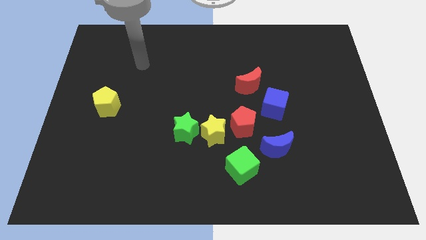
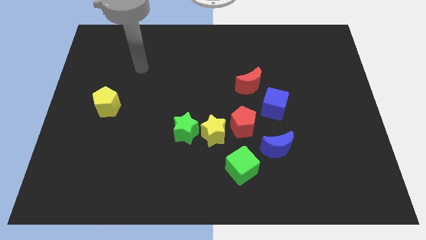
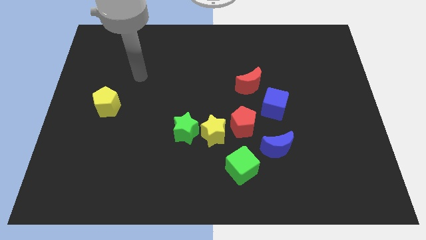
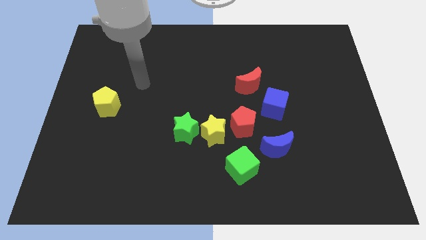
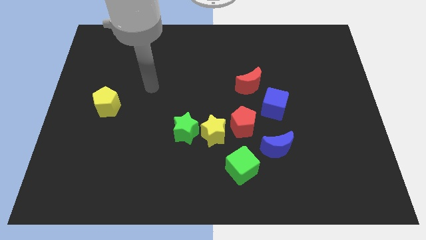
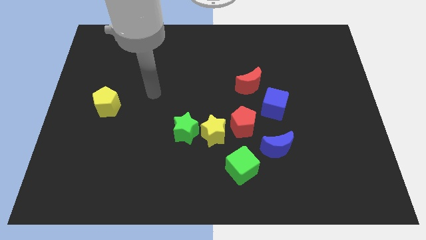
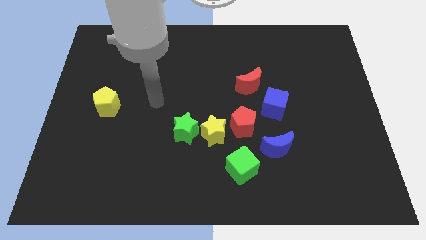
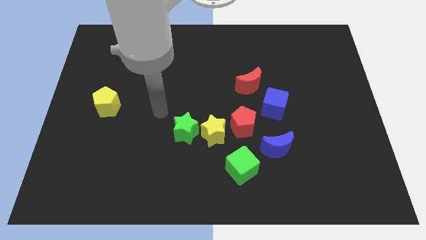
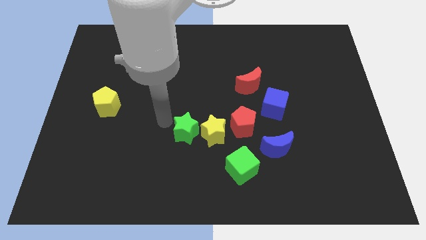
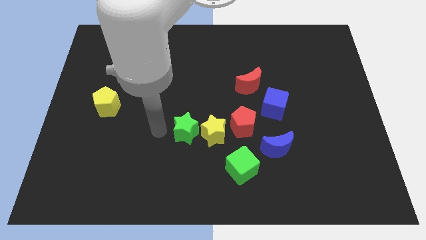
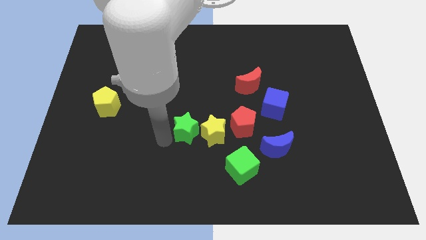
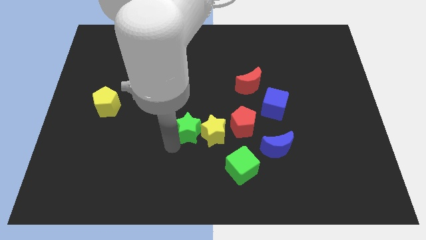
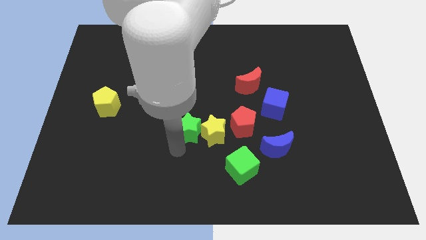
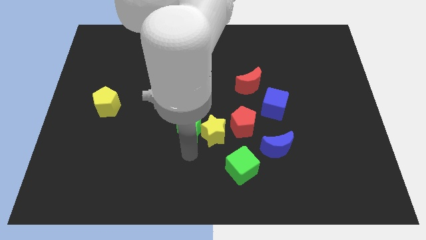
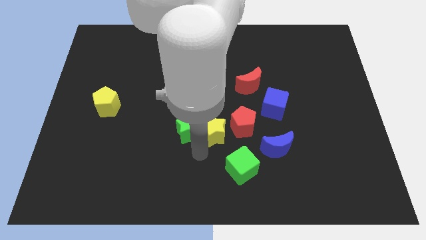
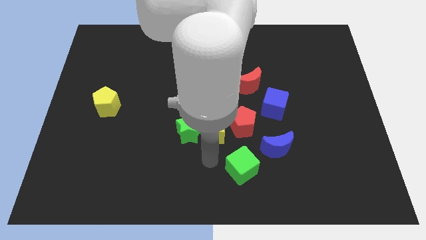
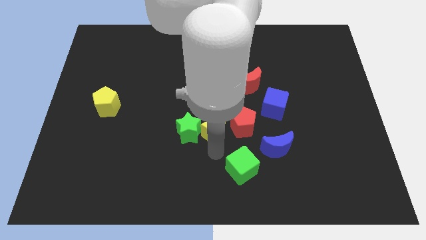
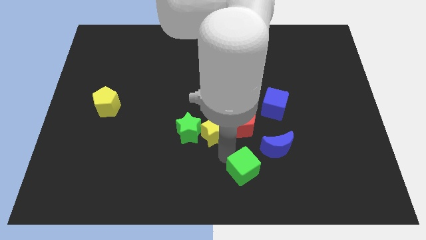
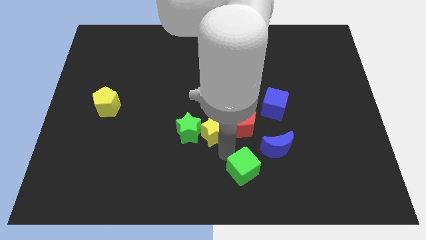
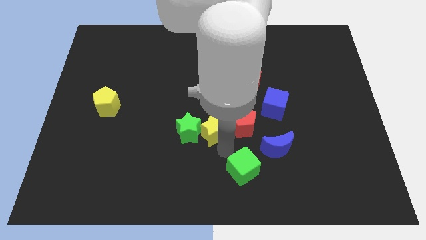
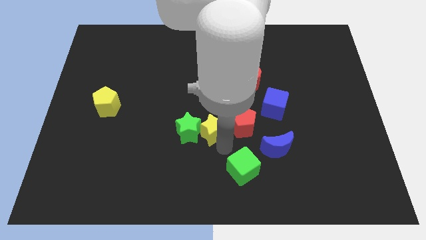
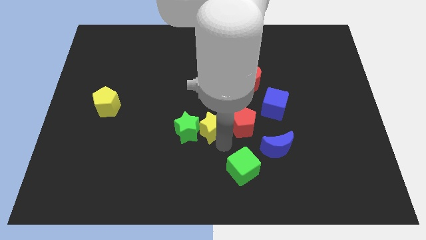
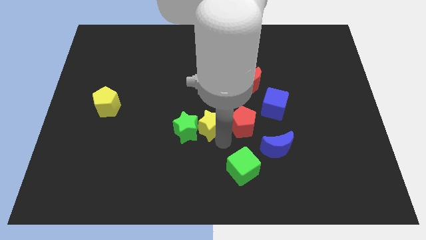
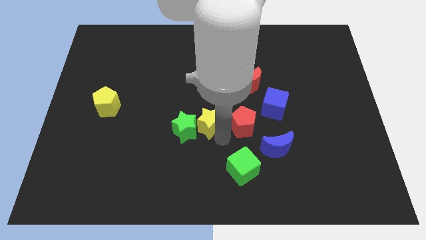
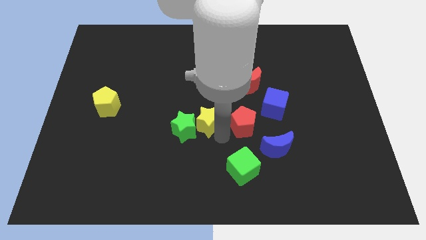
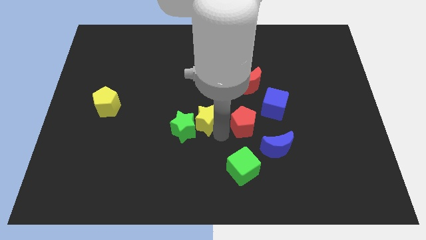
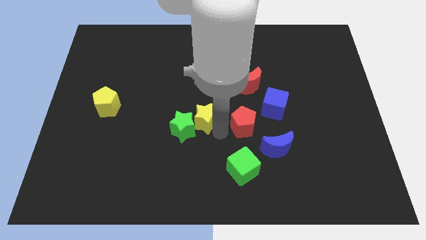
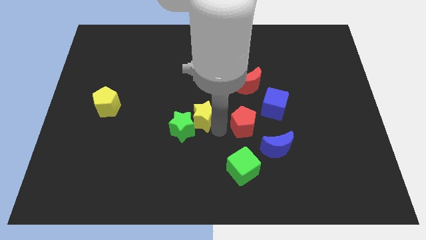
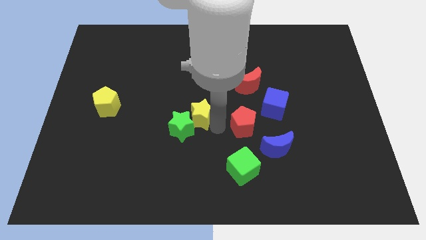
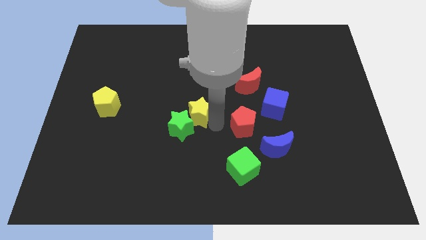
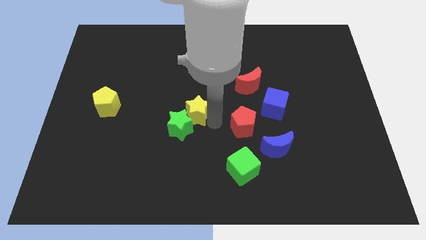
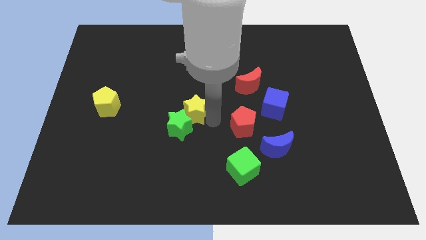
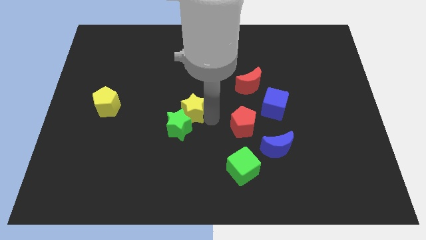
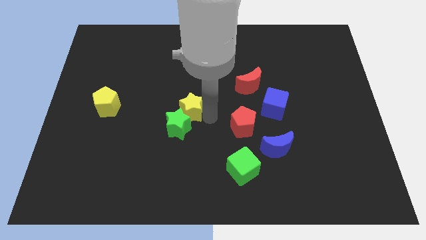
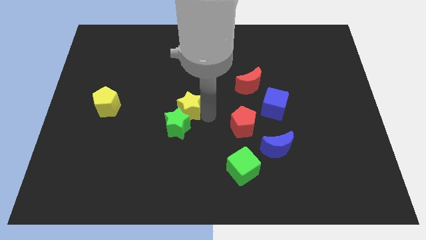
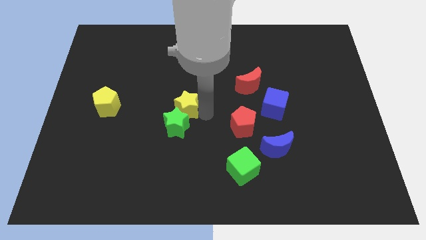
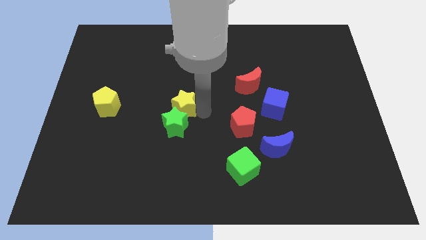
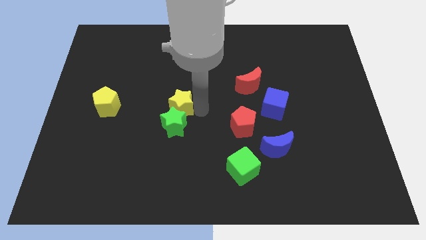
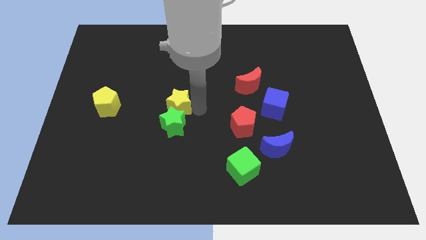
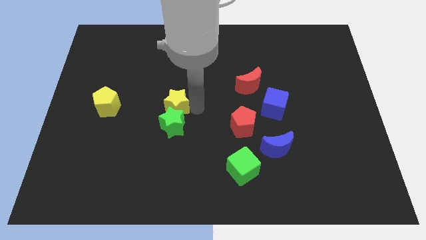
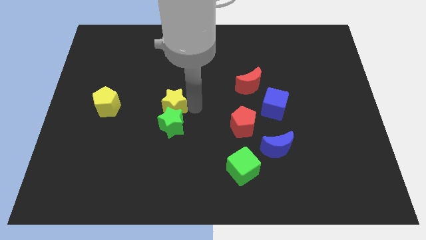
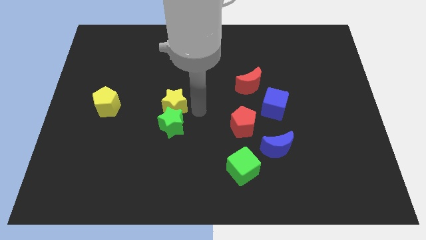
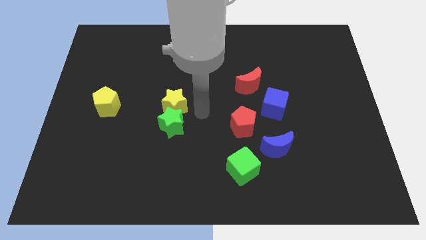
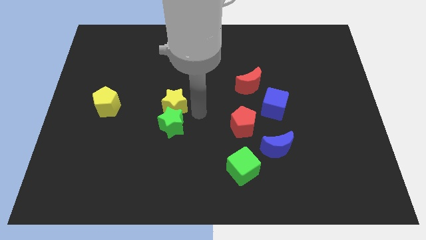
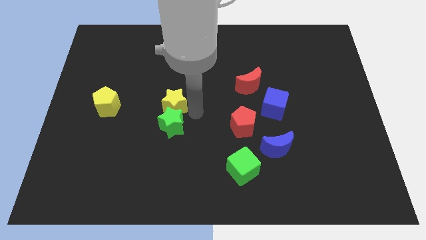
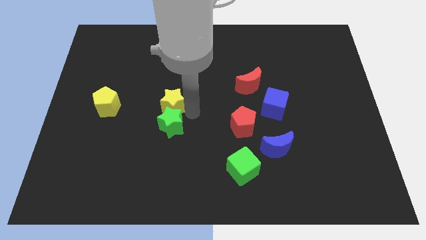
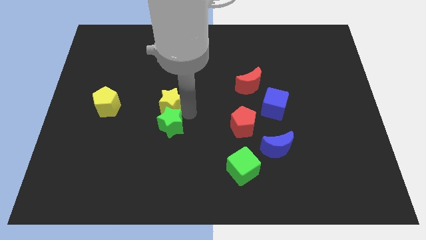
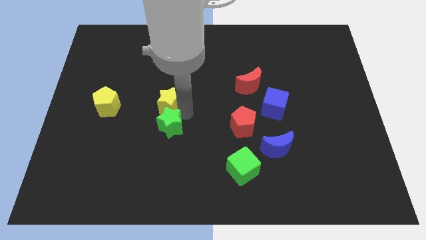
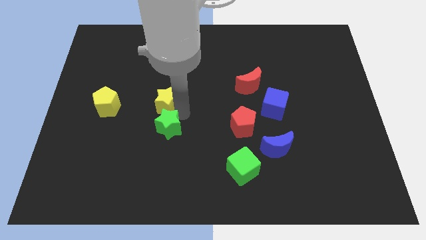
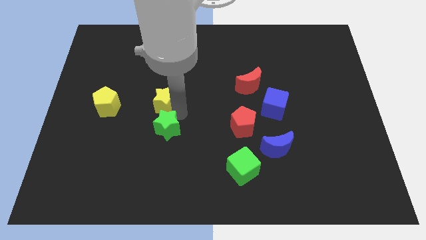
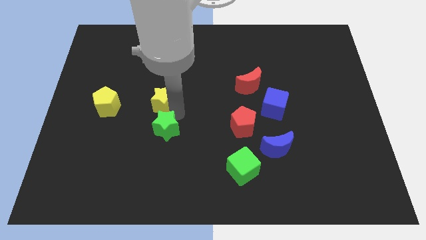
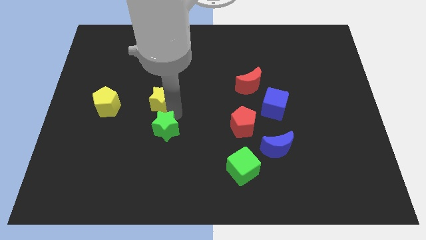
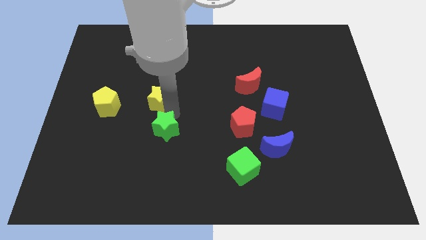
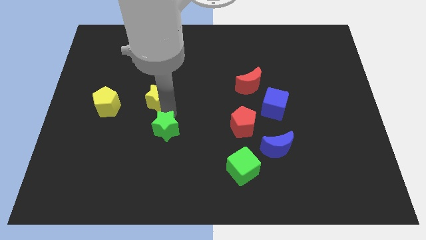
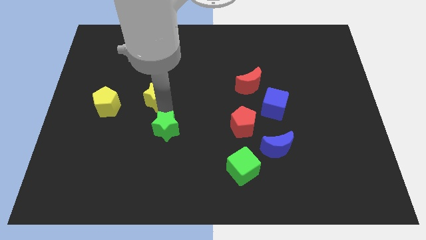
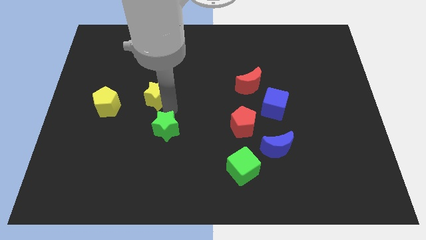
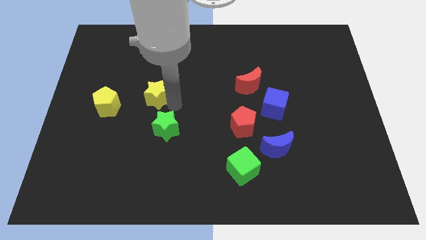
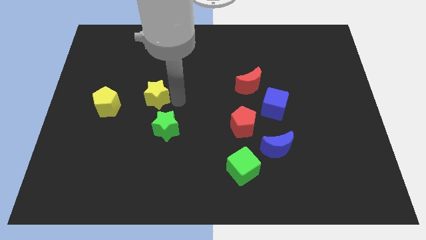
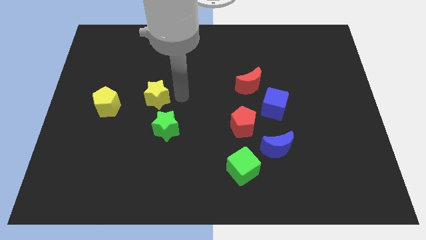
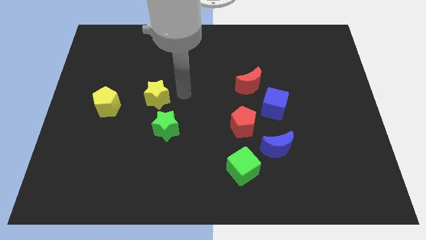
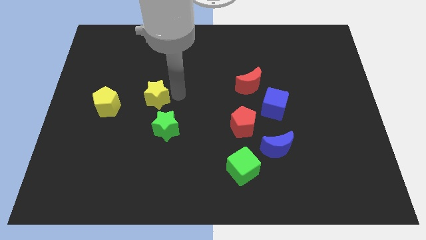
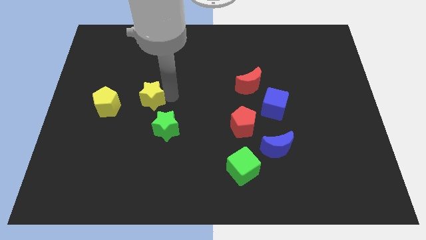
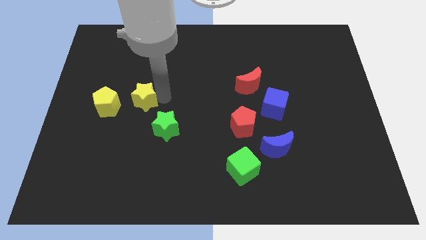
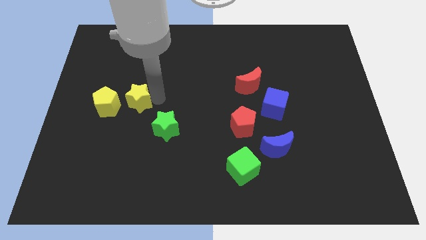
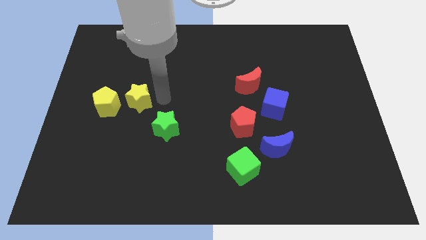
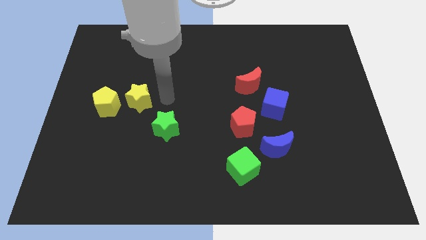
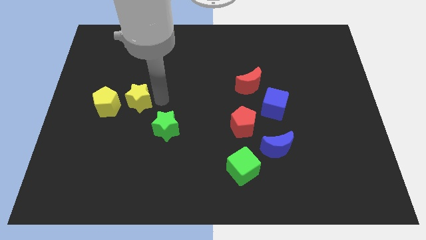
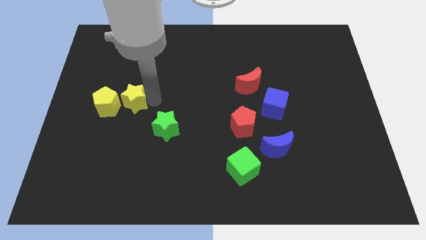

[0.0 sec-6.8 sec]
move the yellow star close to the yellow pentagon

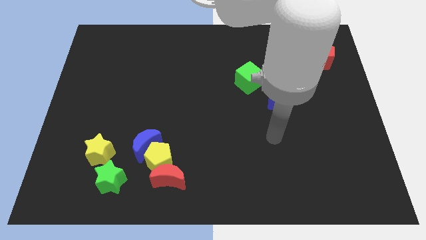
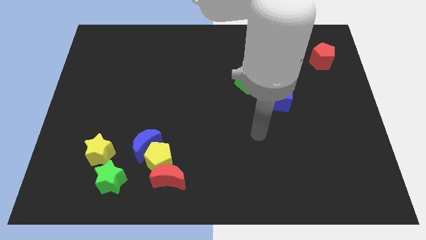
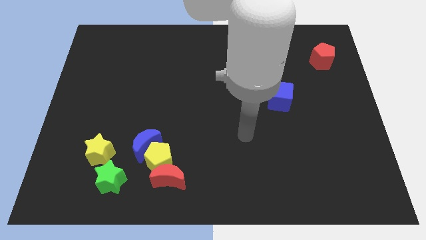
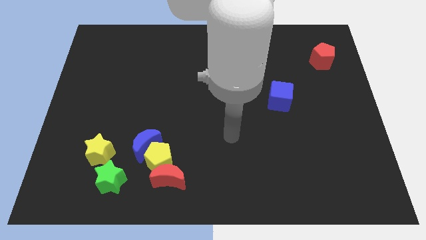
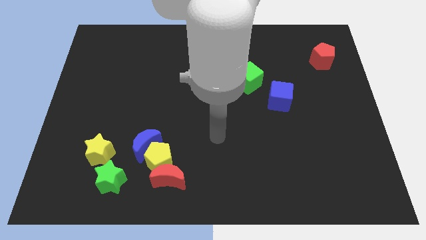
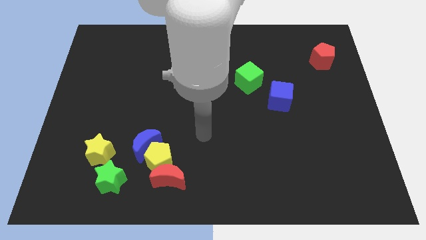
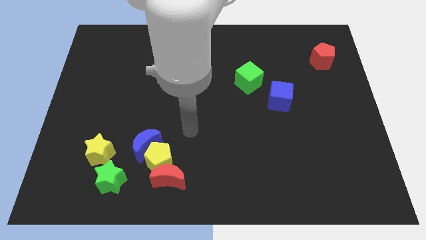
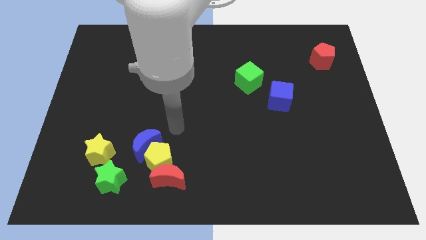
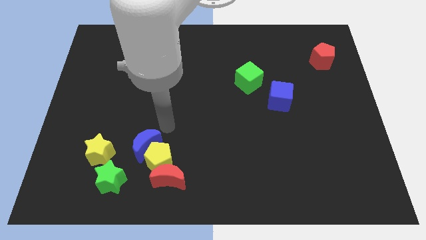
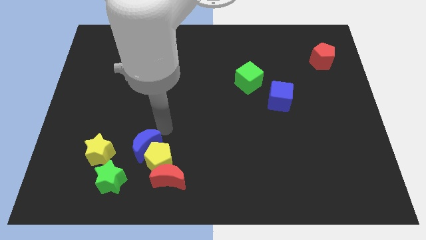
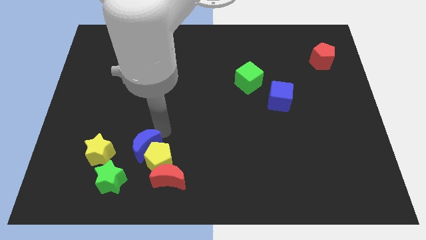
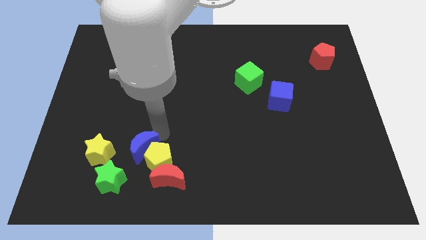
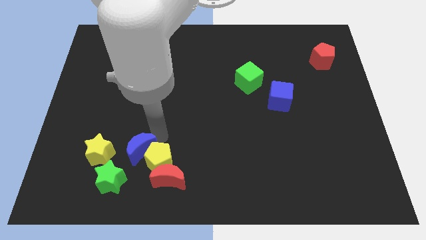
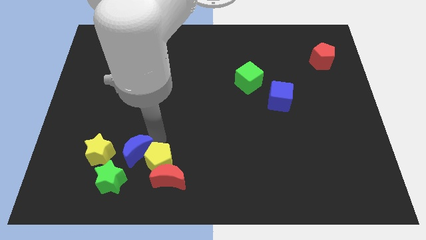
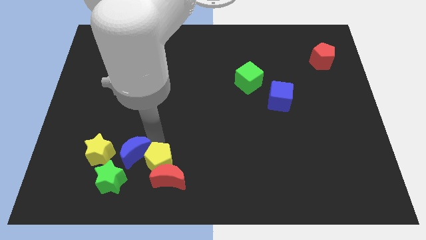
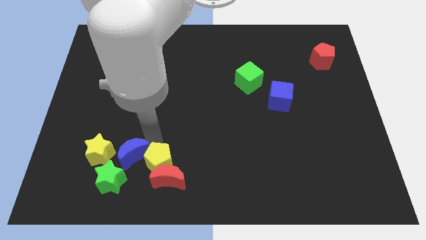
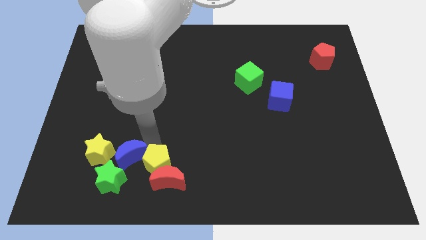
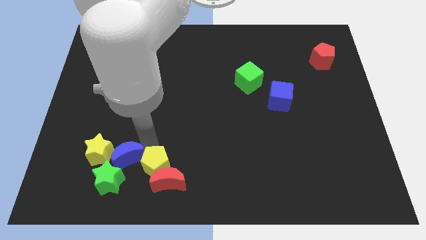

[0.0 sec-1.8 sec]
move the blue moon to the green star
